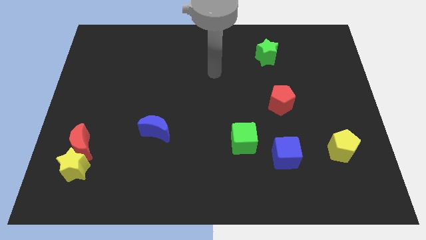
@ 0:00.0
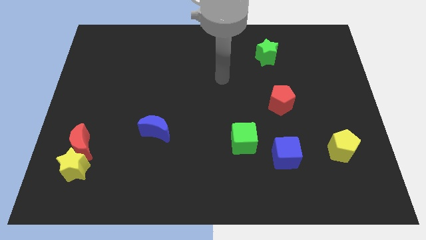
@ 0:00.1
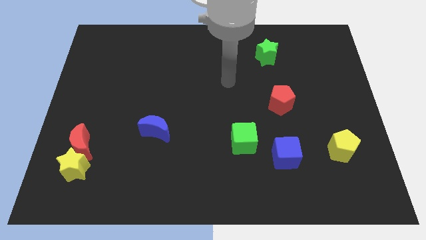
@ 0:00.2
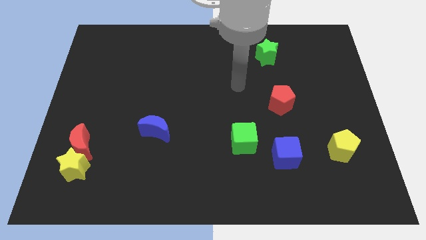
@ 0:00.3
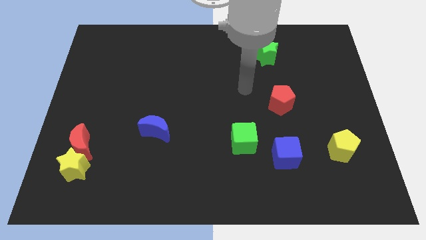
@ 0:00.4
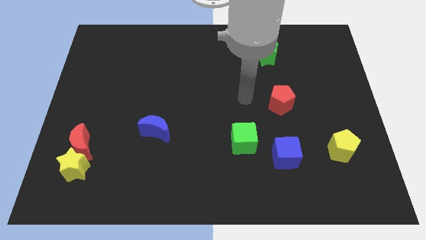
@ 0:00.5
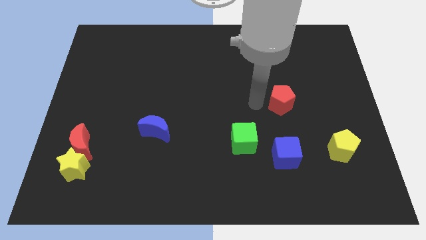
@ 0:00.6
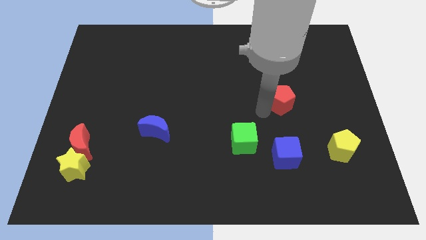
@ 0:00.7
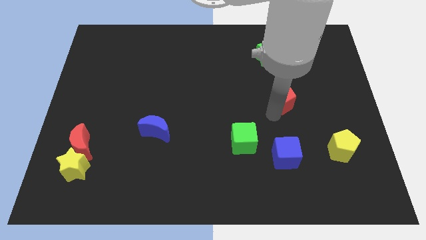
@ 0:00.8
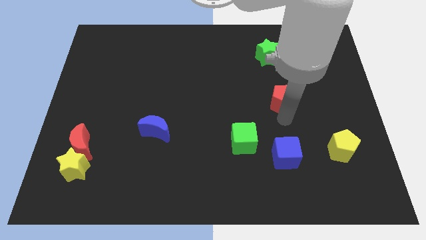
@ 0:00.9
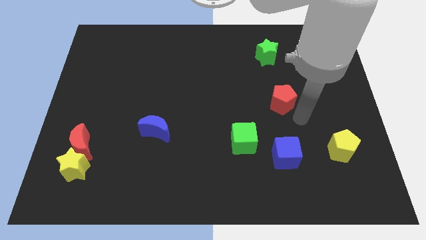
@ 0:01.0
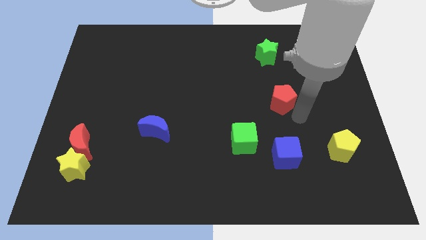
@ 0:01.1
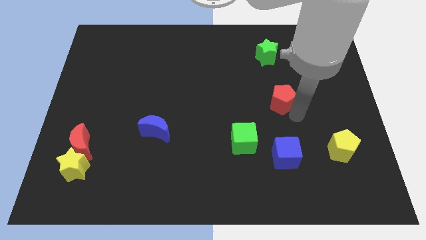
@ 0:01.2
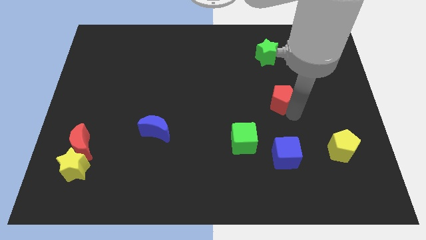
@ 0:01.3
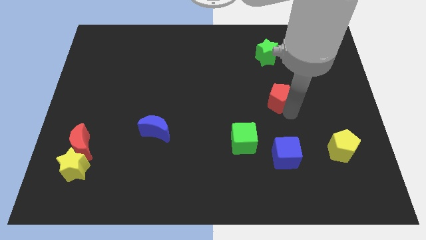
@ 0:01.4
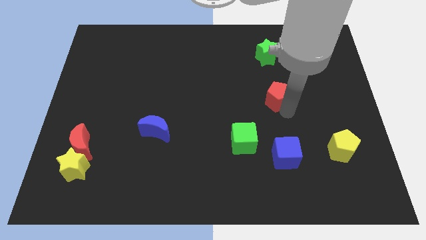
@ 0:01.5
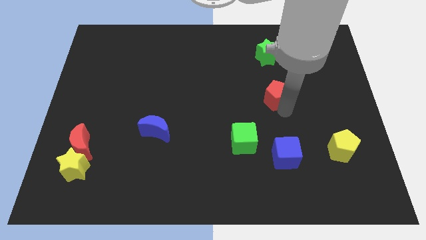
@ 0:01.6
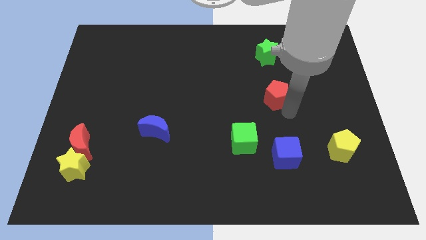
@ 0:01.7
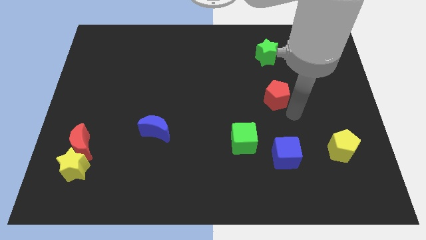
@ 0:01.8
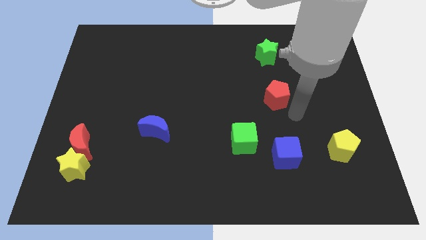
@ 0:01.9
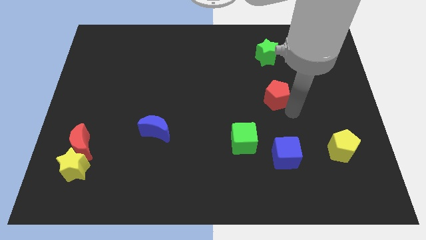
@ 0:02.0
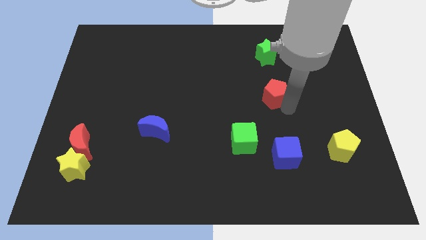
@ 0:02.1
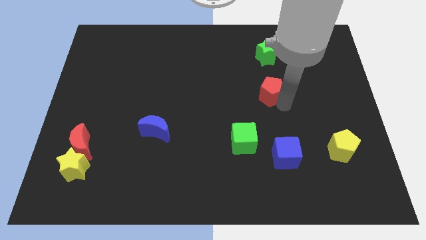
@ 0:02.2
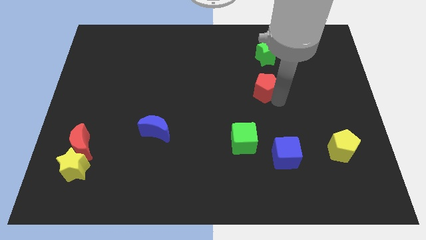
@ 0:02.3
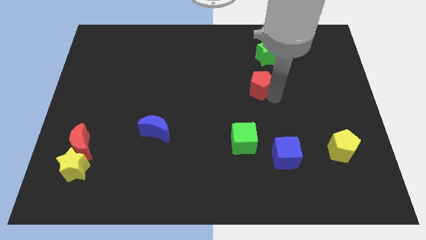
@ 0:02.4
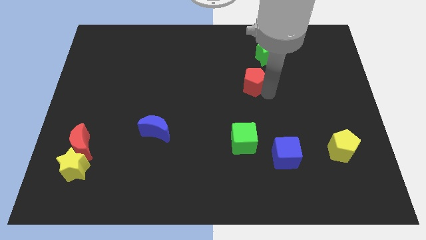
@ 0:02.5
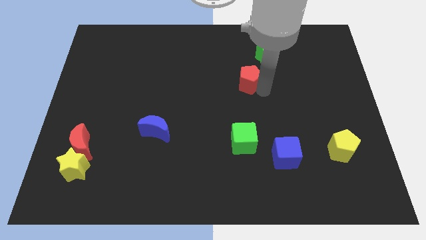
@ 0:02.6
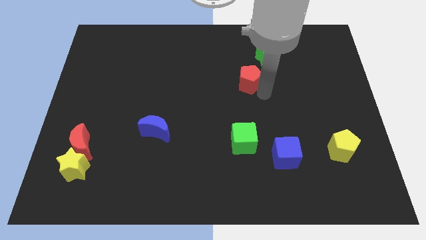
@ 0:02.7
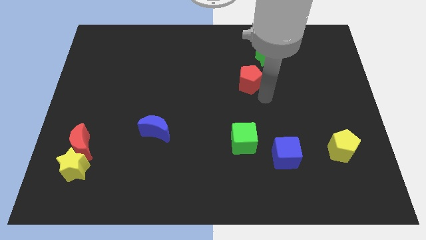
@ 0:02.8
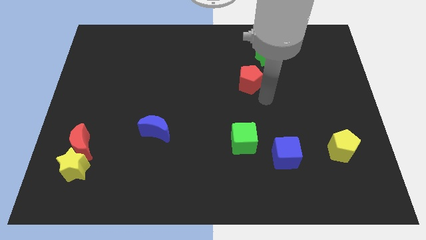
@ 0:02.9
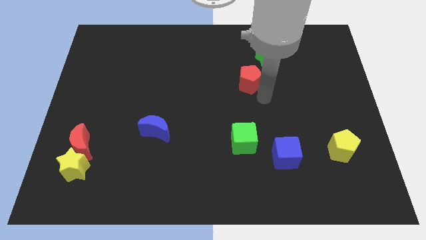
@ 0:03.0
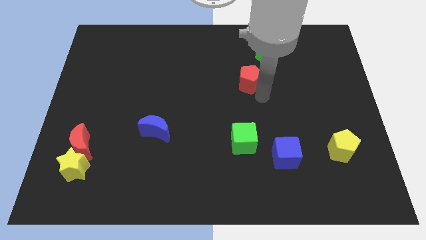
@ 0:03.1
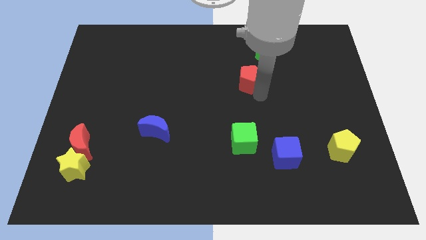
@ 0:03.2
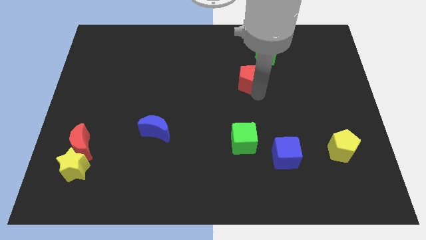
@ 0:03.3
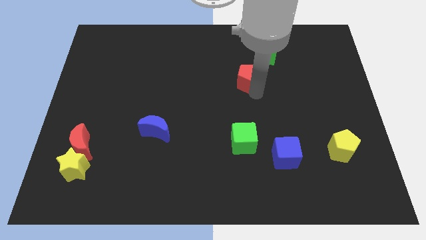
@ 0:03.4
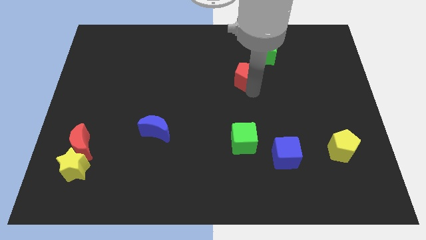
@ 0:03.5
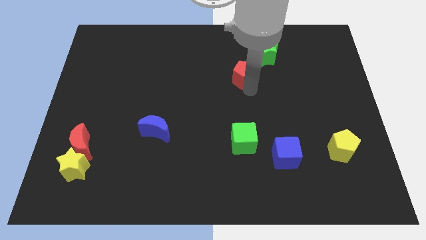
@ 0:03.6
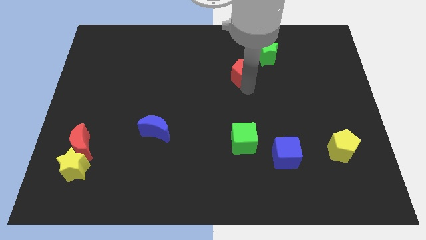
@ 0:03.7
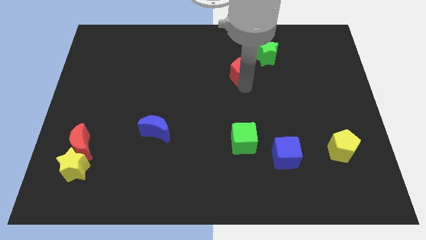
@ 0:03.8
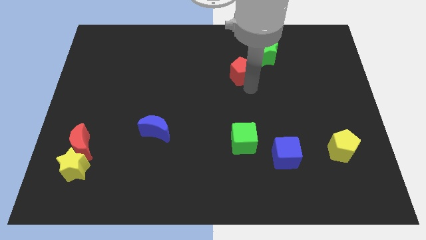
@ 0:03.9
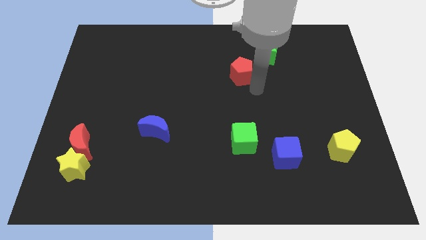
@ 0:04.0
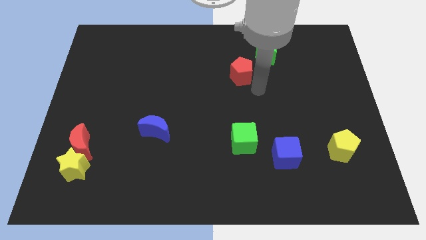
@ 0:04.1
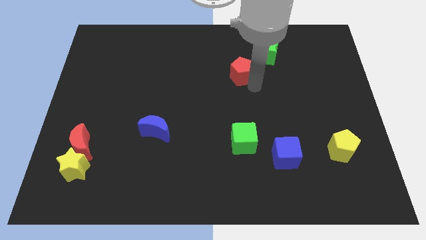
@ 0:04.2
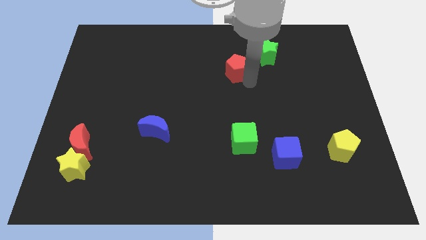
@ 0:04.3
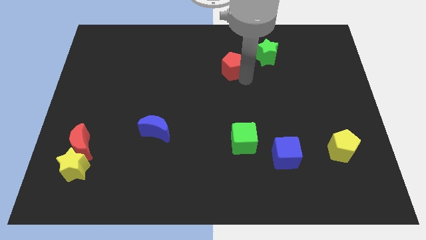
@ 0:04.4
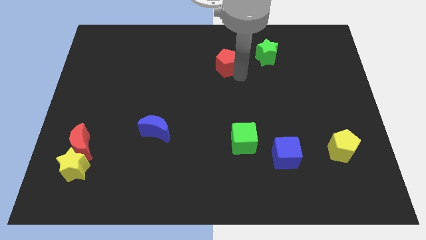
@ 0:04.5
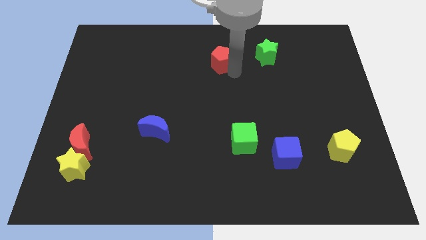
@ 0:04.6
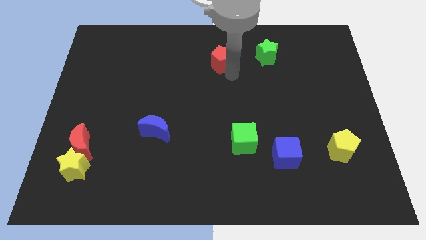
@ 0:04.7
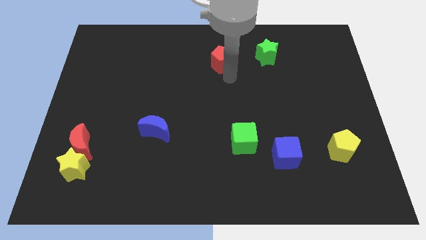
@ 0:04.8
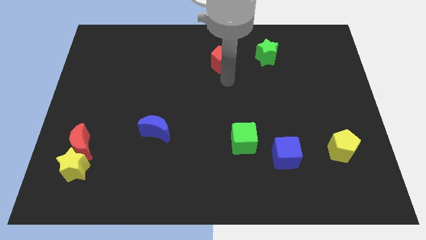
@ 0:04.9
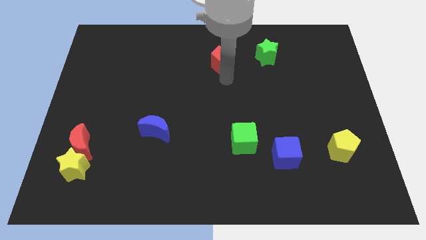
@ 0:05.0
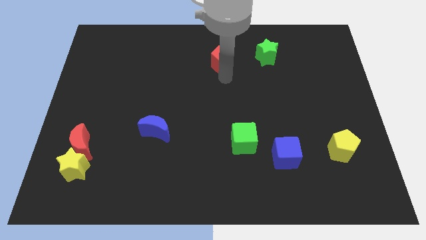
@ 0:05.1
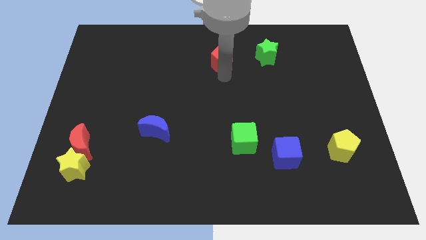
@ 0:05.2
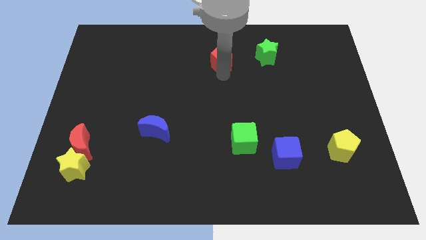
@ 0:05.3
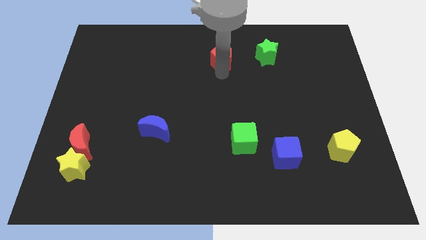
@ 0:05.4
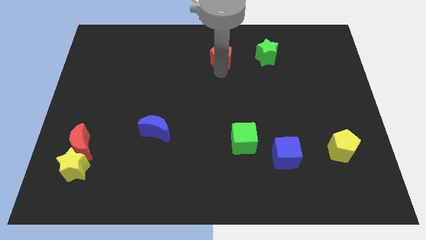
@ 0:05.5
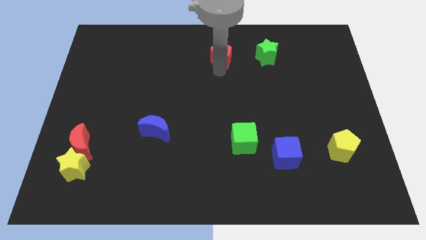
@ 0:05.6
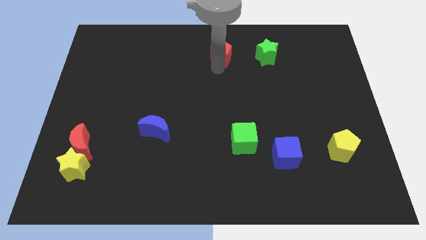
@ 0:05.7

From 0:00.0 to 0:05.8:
move the red pentagon to the top side

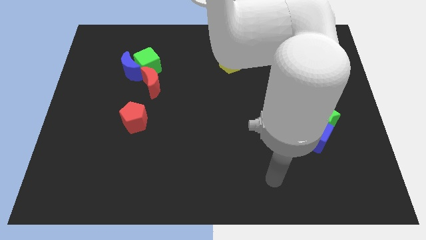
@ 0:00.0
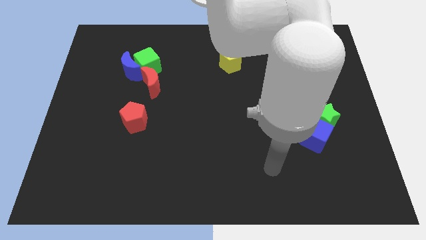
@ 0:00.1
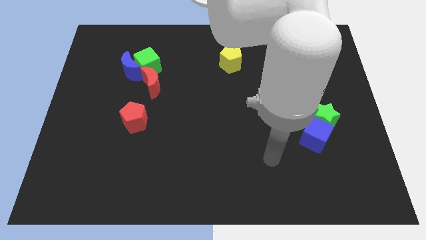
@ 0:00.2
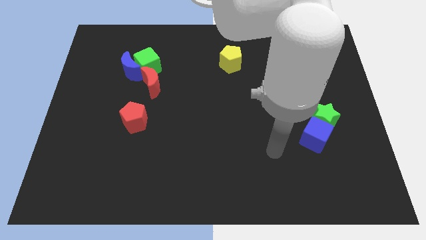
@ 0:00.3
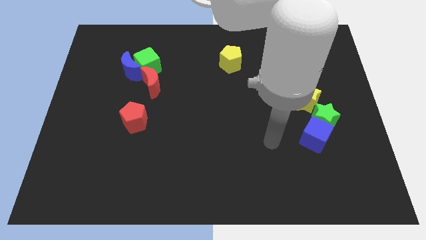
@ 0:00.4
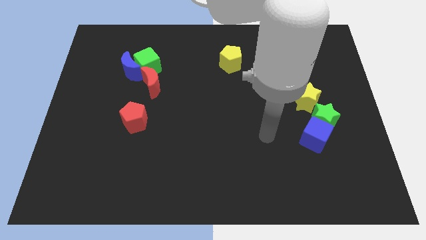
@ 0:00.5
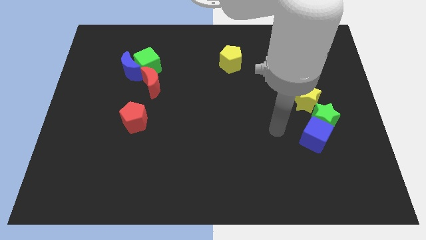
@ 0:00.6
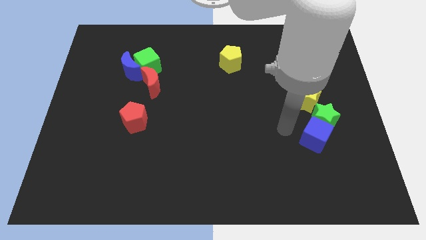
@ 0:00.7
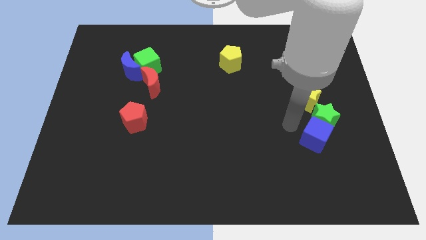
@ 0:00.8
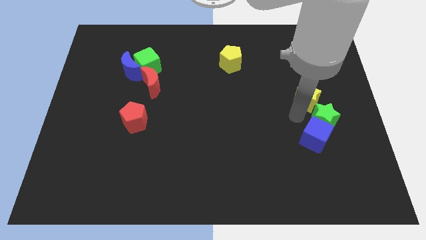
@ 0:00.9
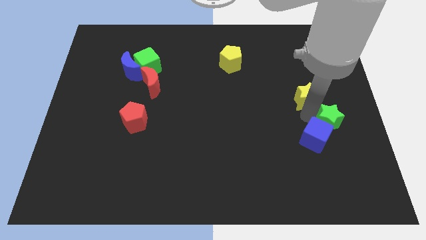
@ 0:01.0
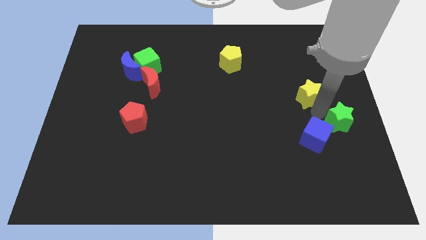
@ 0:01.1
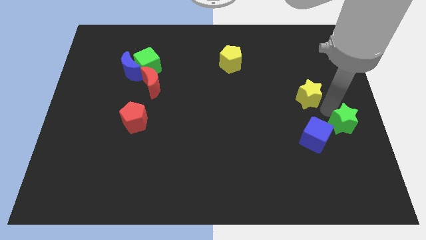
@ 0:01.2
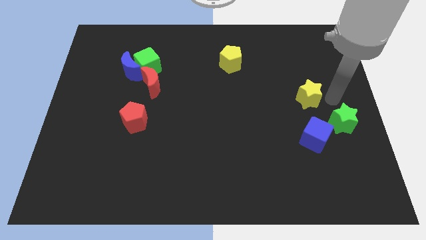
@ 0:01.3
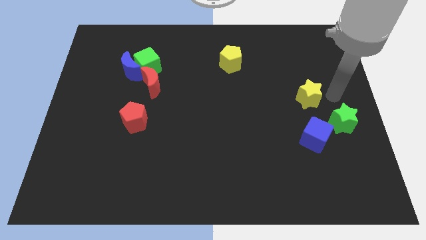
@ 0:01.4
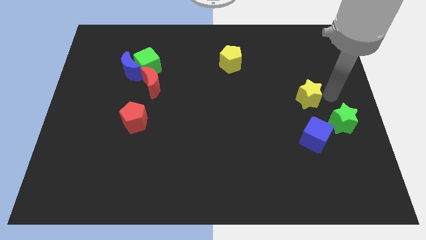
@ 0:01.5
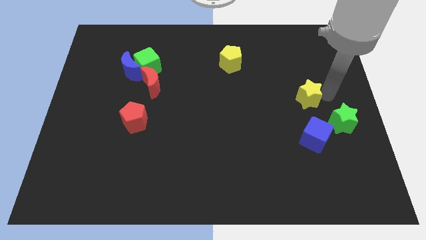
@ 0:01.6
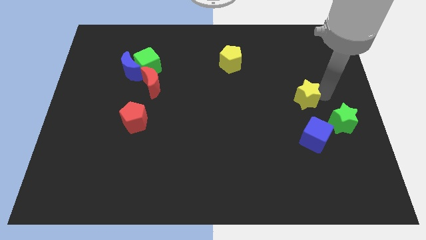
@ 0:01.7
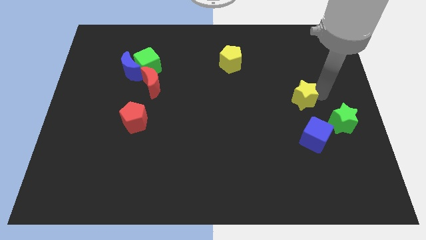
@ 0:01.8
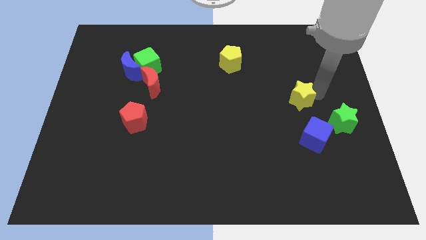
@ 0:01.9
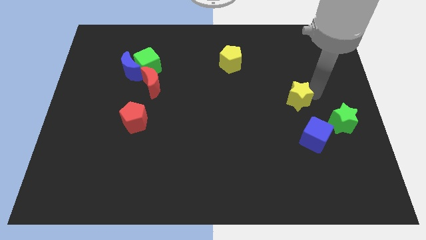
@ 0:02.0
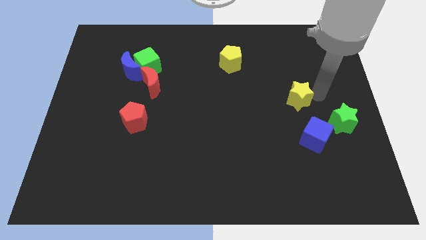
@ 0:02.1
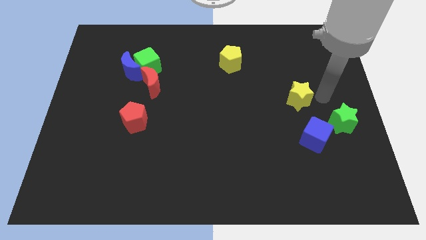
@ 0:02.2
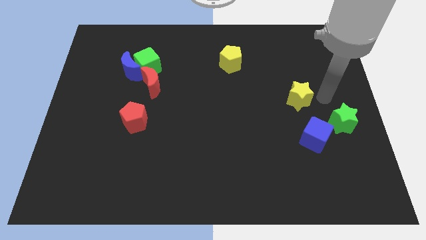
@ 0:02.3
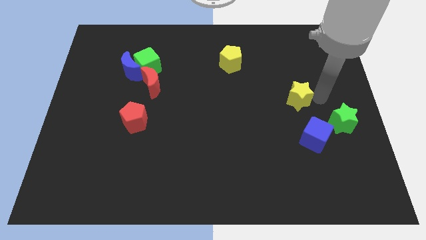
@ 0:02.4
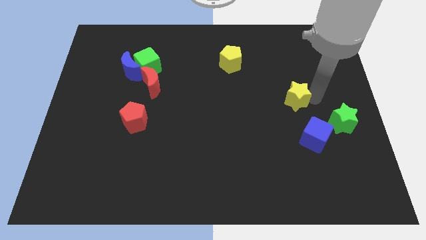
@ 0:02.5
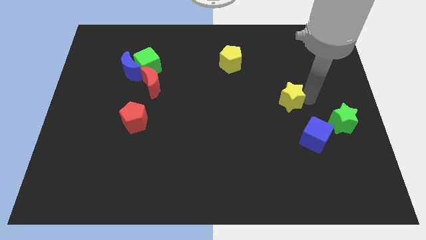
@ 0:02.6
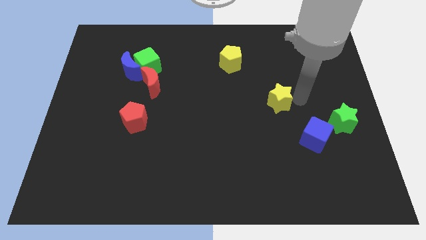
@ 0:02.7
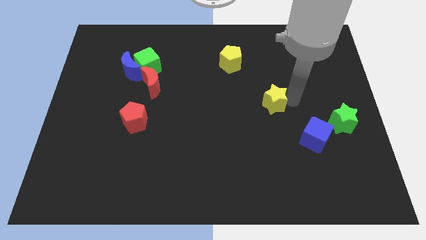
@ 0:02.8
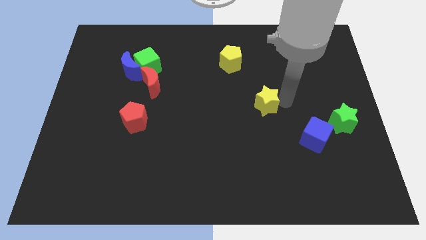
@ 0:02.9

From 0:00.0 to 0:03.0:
slide the yellow star to the center
